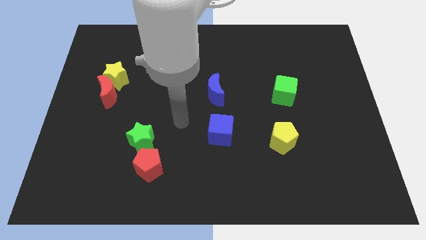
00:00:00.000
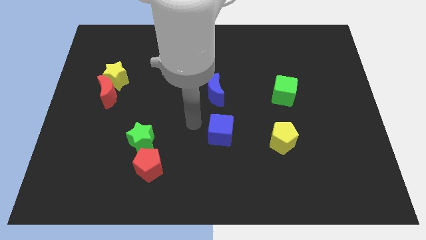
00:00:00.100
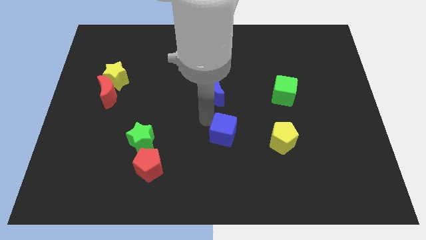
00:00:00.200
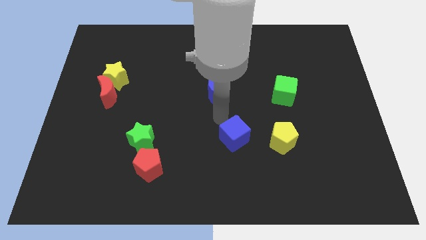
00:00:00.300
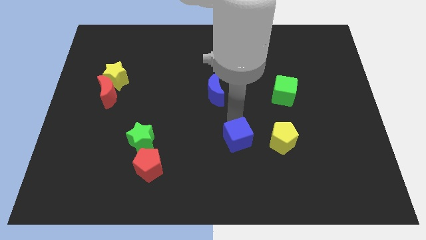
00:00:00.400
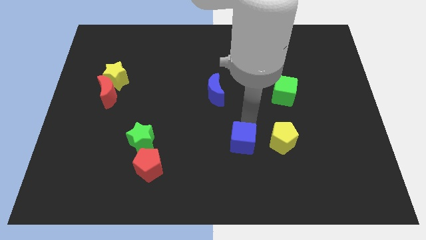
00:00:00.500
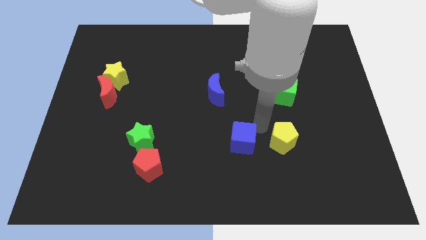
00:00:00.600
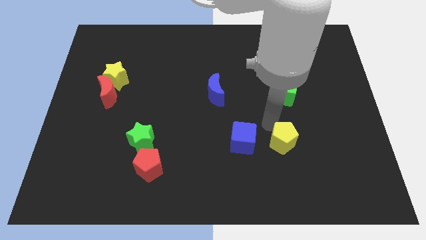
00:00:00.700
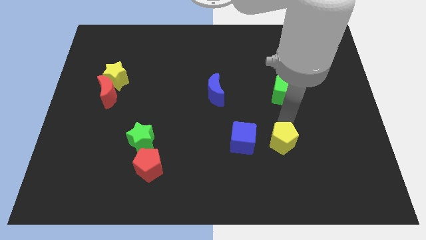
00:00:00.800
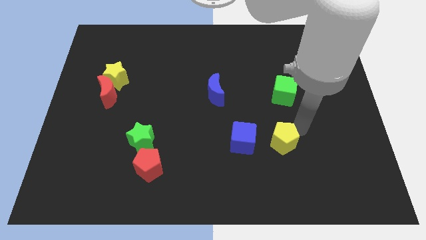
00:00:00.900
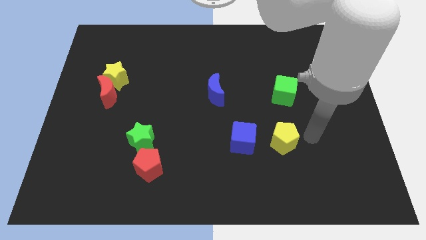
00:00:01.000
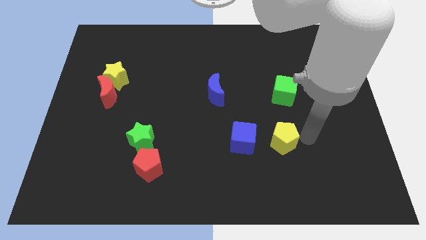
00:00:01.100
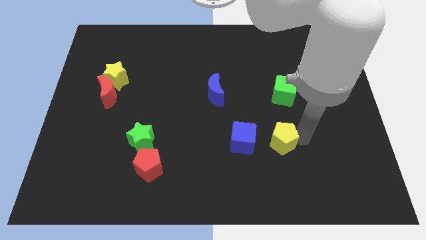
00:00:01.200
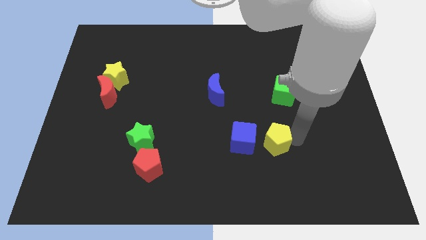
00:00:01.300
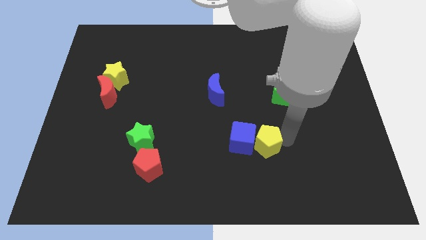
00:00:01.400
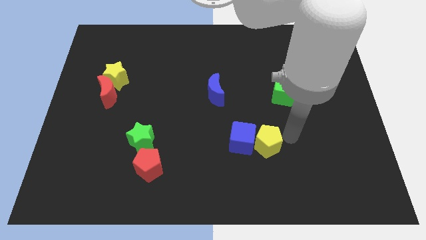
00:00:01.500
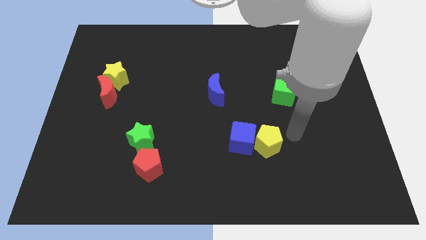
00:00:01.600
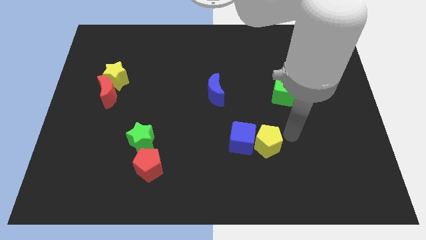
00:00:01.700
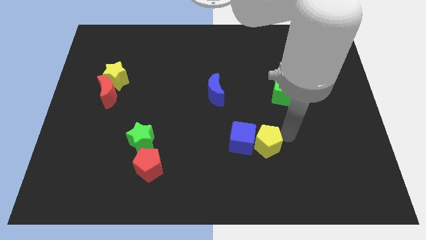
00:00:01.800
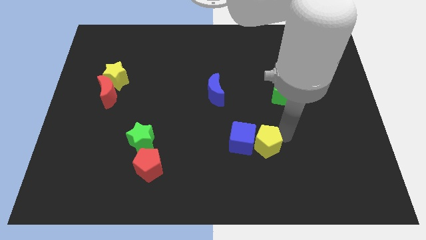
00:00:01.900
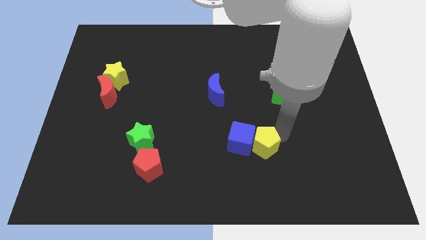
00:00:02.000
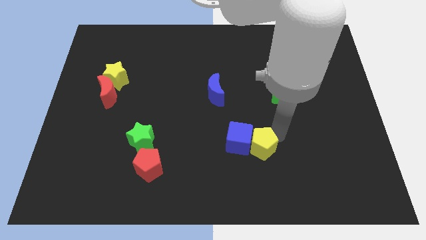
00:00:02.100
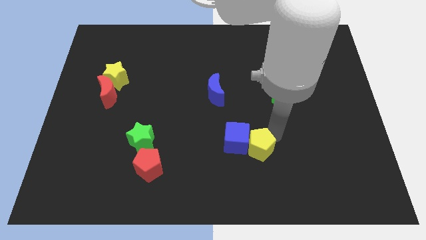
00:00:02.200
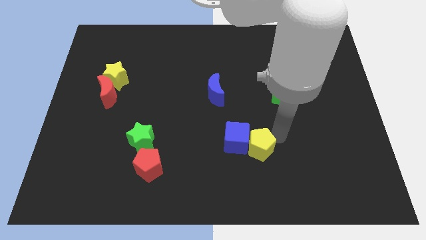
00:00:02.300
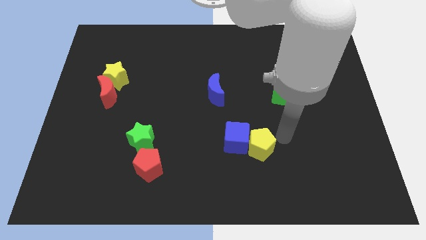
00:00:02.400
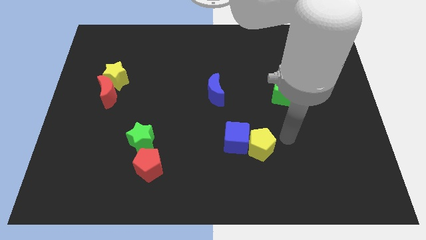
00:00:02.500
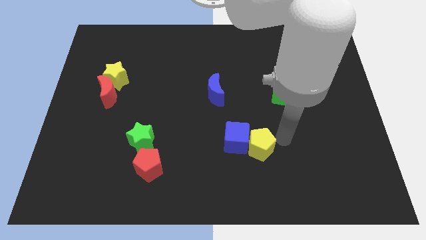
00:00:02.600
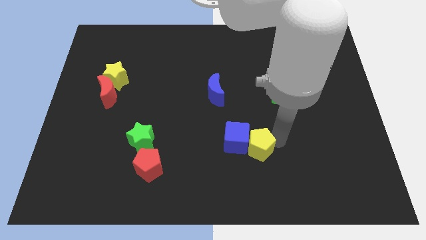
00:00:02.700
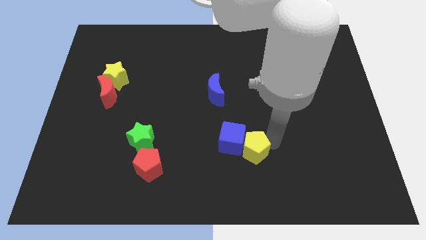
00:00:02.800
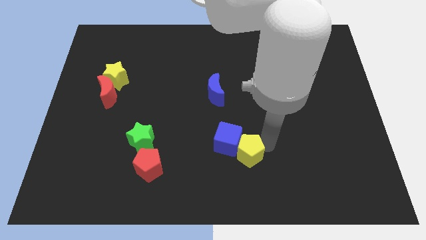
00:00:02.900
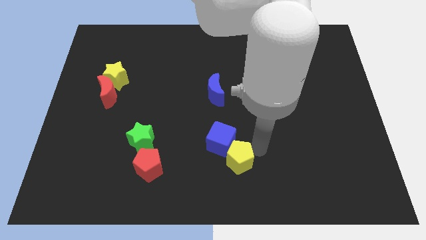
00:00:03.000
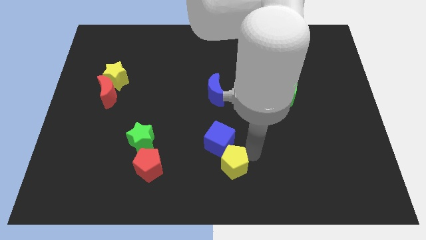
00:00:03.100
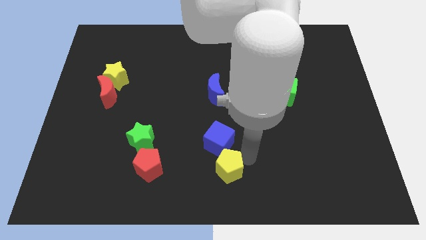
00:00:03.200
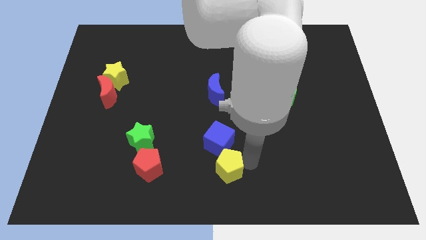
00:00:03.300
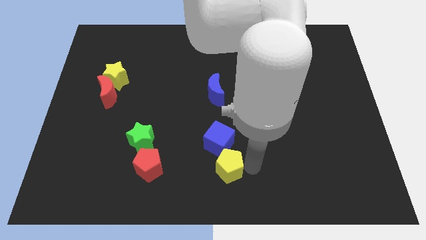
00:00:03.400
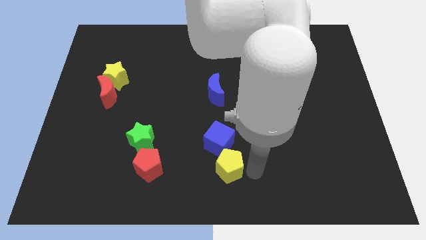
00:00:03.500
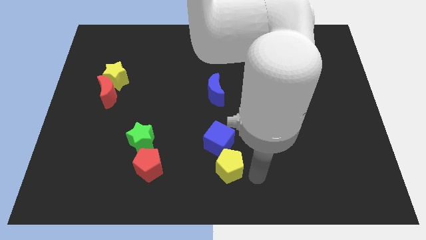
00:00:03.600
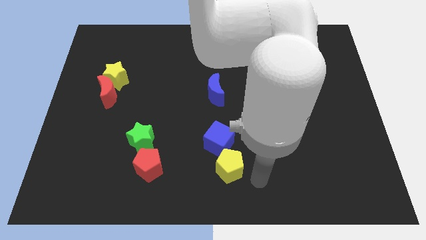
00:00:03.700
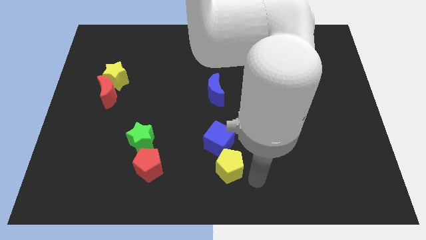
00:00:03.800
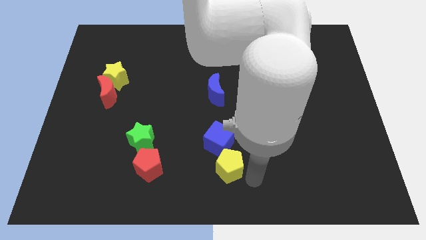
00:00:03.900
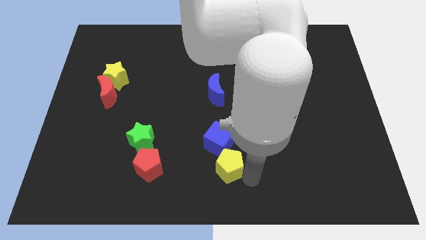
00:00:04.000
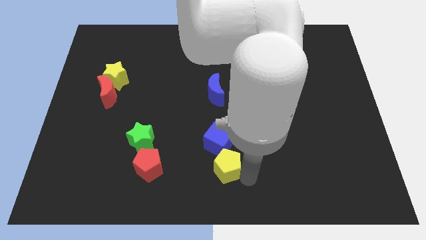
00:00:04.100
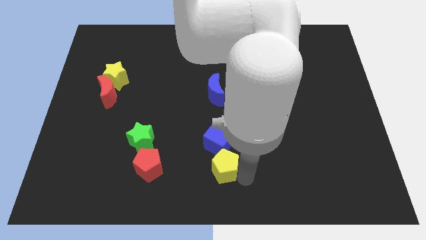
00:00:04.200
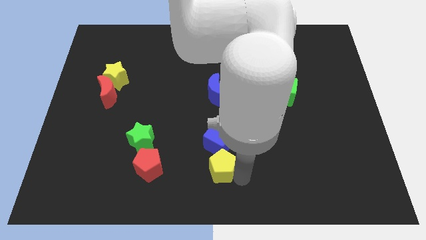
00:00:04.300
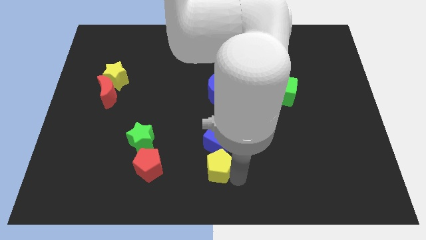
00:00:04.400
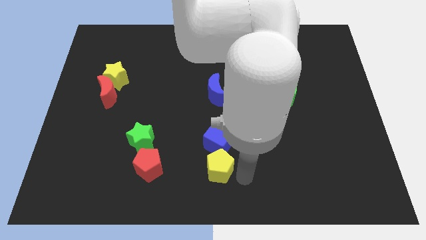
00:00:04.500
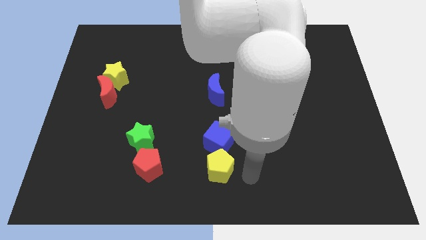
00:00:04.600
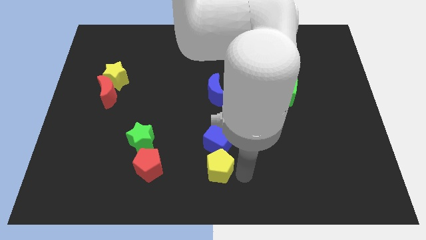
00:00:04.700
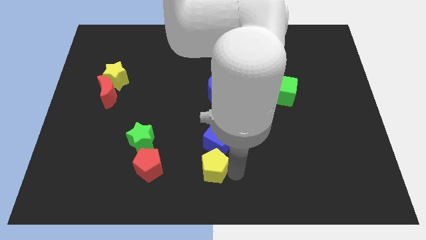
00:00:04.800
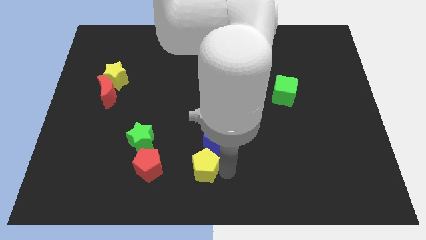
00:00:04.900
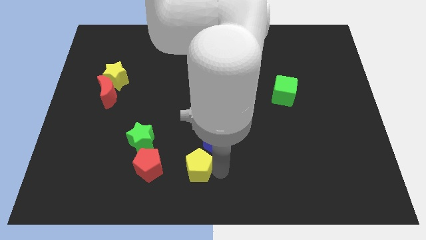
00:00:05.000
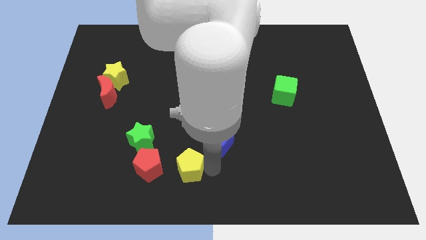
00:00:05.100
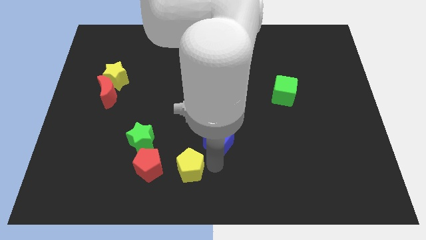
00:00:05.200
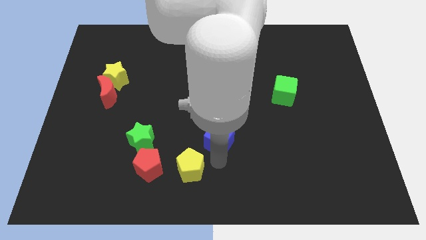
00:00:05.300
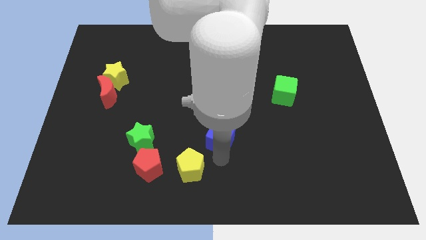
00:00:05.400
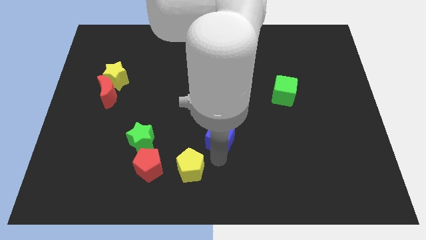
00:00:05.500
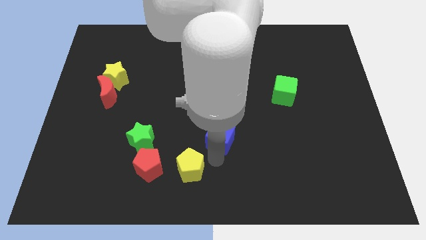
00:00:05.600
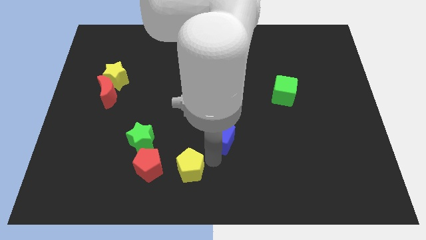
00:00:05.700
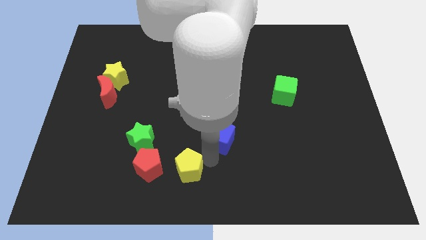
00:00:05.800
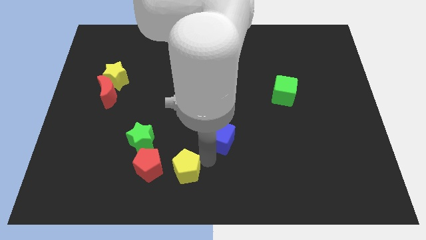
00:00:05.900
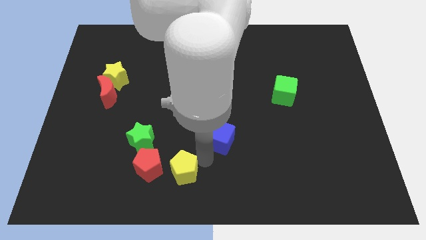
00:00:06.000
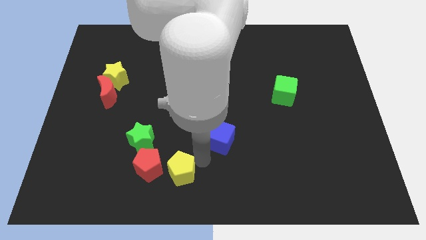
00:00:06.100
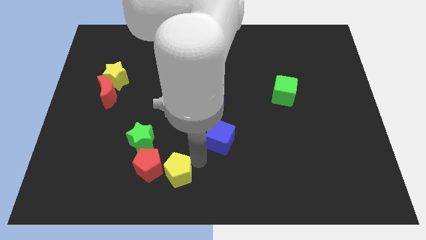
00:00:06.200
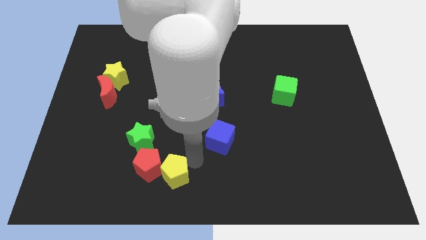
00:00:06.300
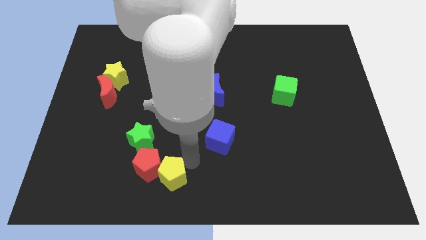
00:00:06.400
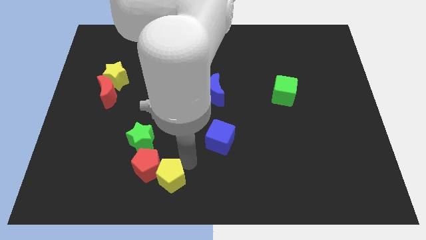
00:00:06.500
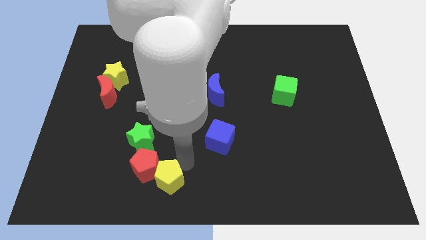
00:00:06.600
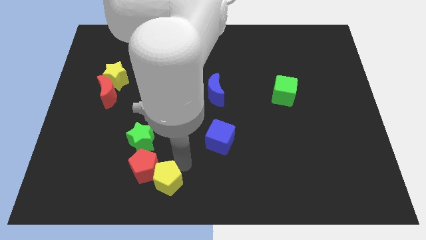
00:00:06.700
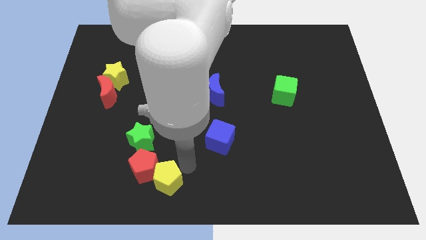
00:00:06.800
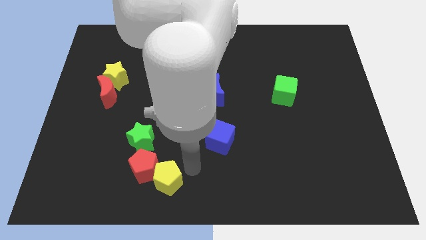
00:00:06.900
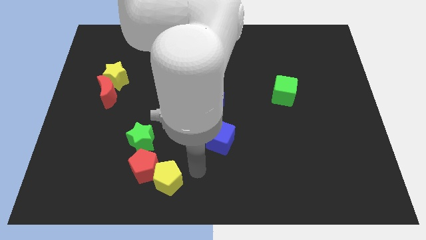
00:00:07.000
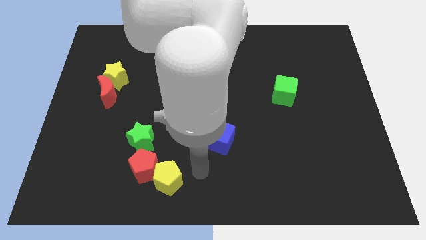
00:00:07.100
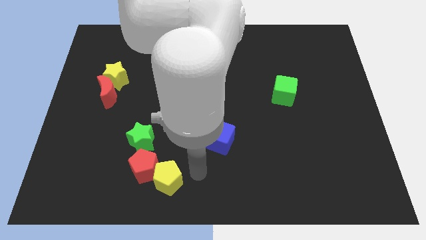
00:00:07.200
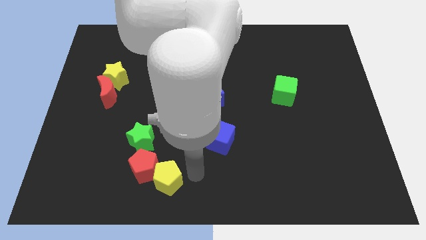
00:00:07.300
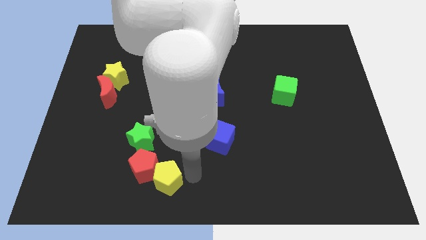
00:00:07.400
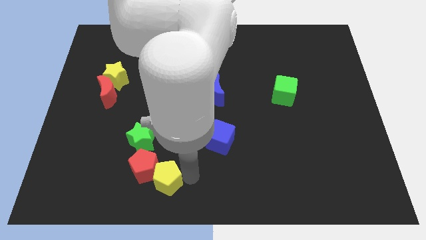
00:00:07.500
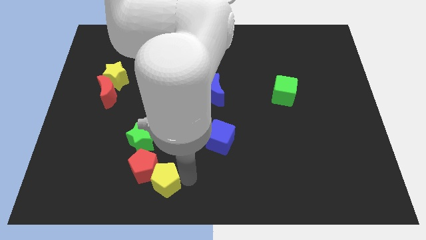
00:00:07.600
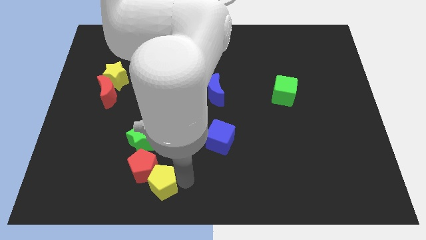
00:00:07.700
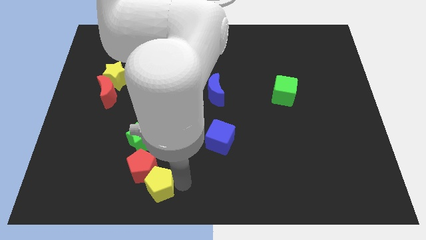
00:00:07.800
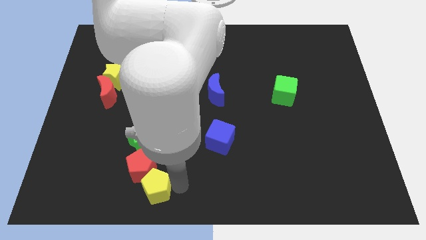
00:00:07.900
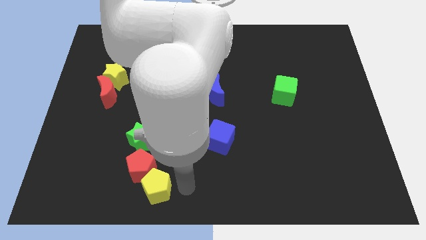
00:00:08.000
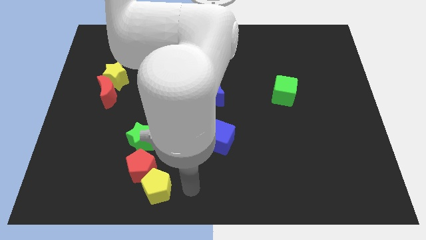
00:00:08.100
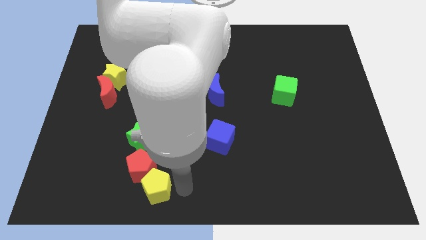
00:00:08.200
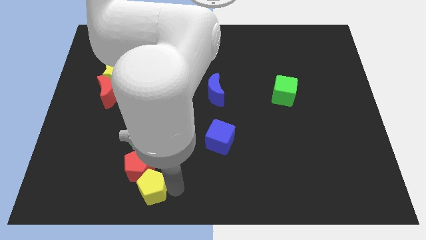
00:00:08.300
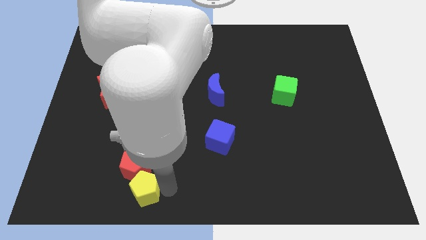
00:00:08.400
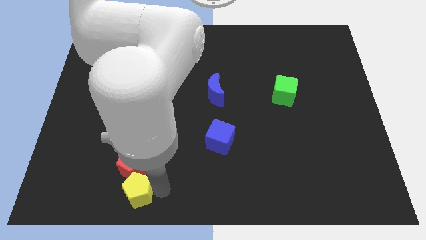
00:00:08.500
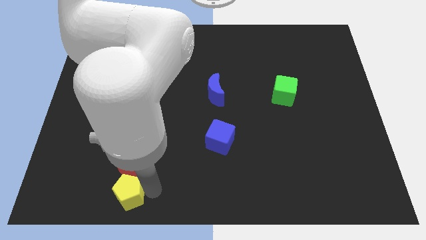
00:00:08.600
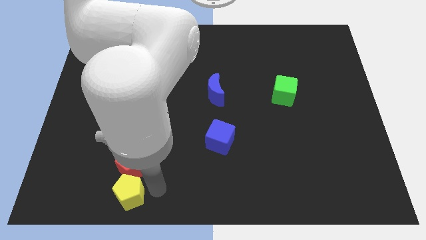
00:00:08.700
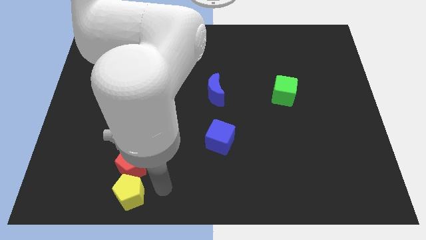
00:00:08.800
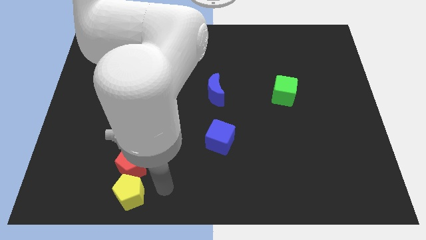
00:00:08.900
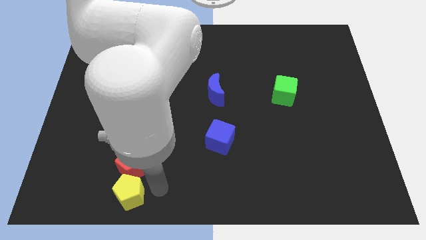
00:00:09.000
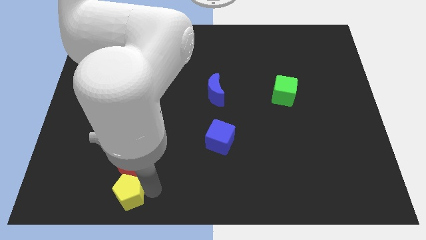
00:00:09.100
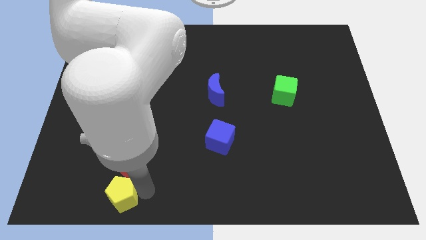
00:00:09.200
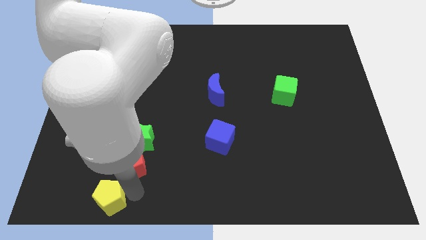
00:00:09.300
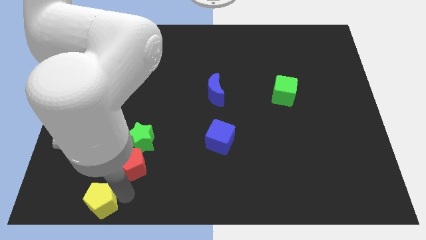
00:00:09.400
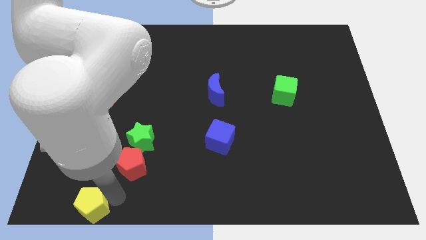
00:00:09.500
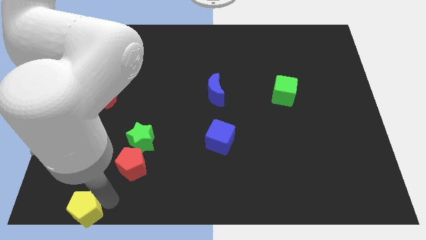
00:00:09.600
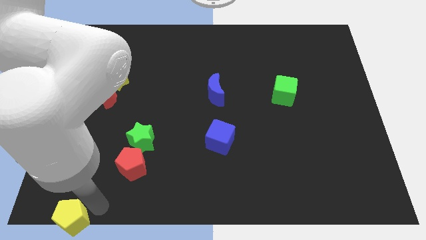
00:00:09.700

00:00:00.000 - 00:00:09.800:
slide the yellow pentagon to the bottom left corner
